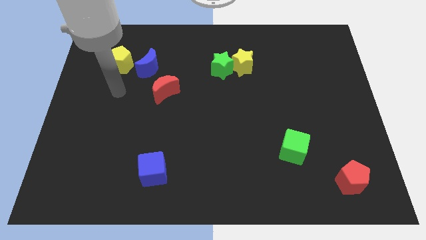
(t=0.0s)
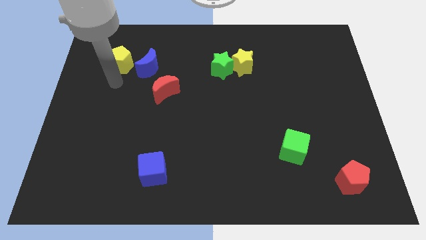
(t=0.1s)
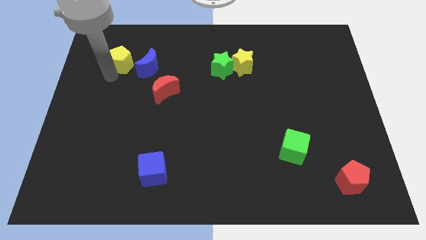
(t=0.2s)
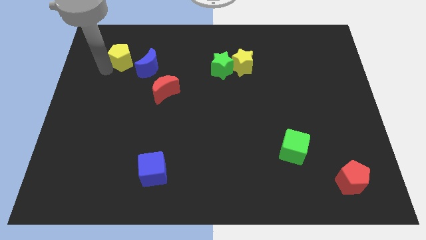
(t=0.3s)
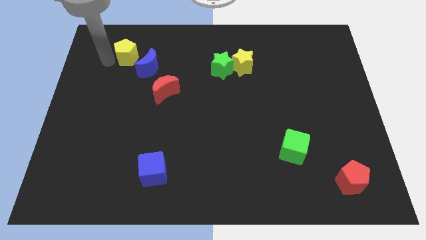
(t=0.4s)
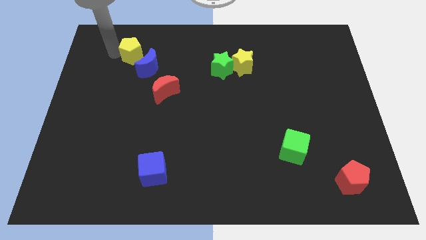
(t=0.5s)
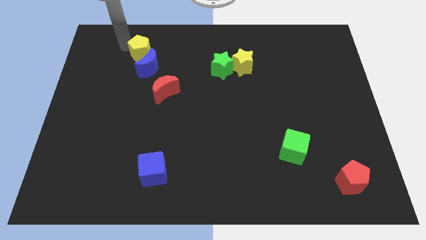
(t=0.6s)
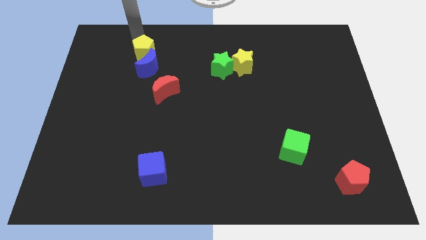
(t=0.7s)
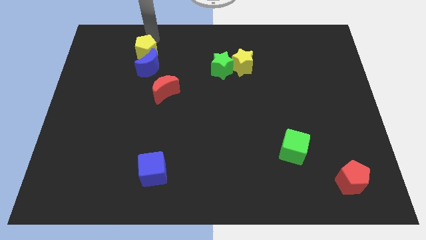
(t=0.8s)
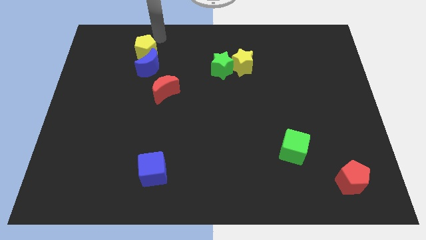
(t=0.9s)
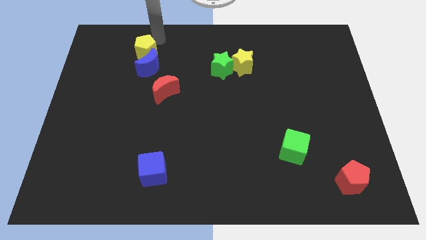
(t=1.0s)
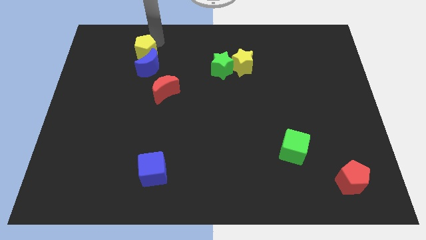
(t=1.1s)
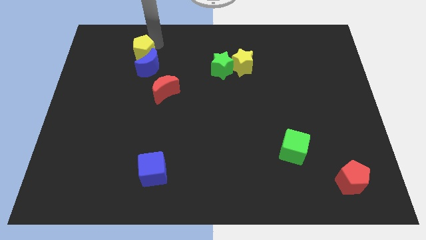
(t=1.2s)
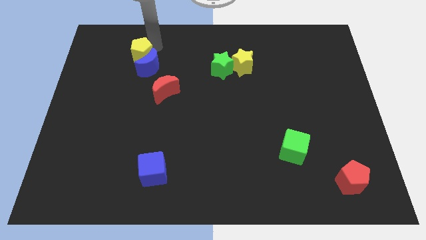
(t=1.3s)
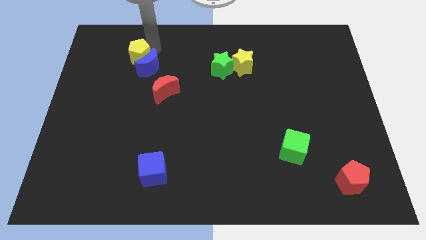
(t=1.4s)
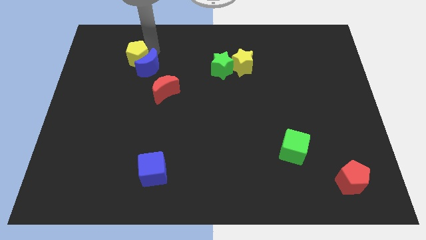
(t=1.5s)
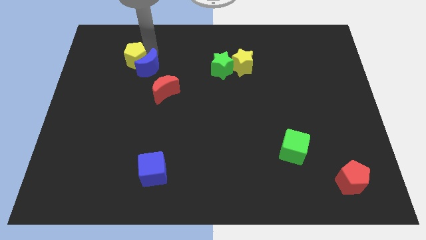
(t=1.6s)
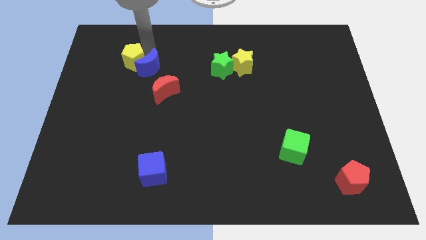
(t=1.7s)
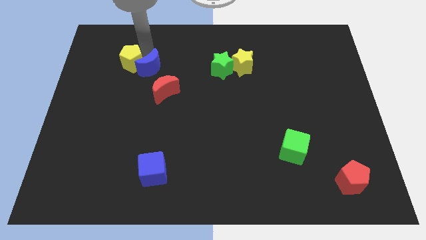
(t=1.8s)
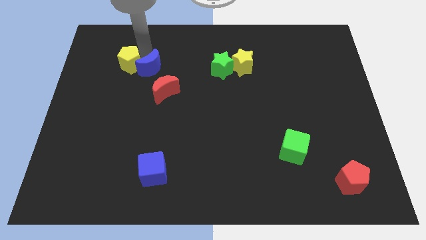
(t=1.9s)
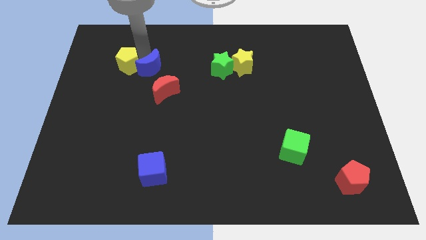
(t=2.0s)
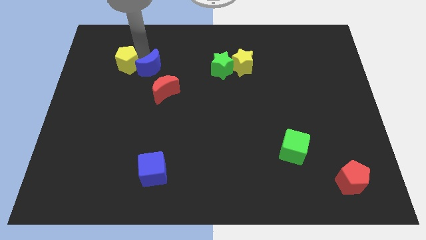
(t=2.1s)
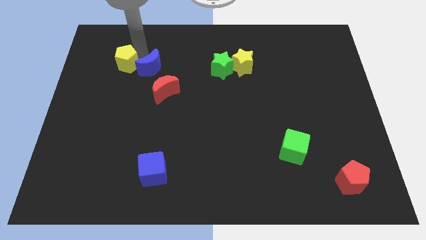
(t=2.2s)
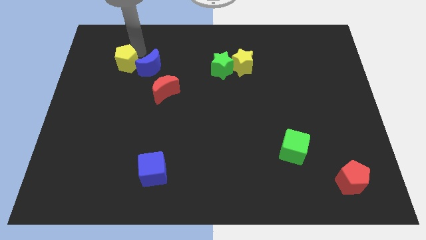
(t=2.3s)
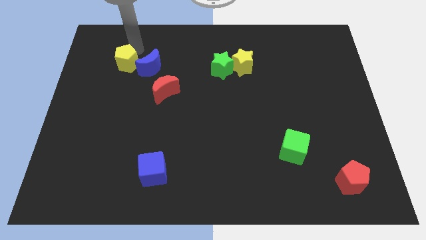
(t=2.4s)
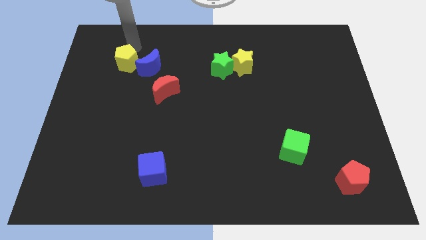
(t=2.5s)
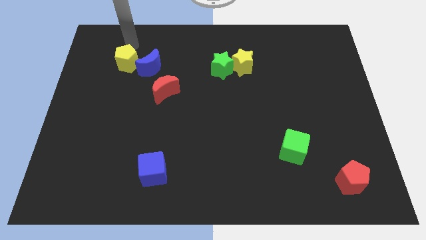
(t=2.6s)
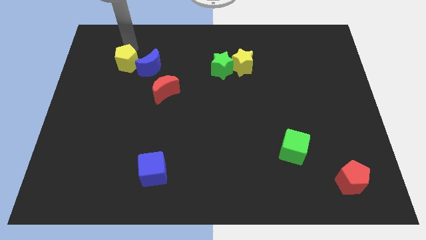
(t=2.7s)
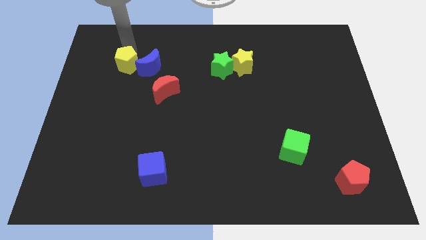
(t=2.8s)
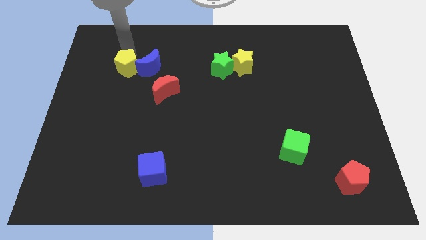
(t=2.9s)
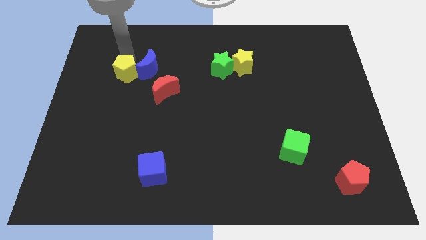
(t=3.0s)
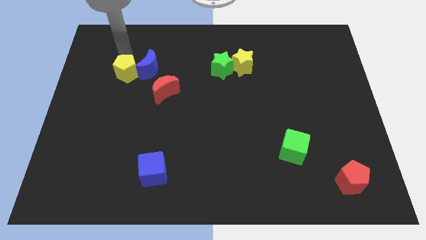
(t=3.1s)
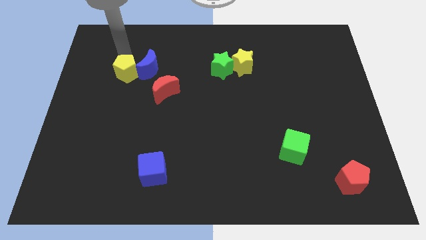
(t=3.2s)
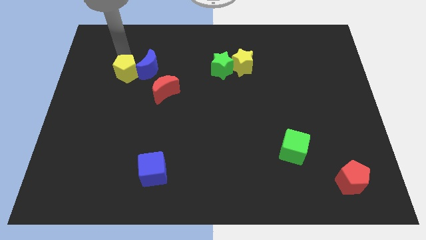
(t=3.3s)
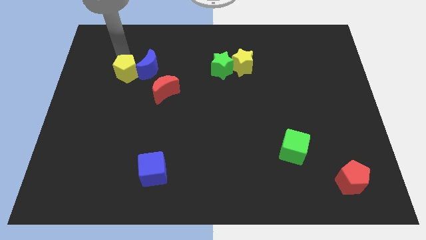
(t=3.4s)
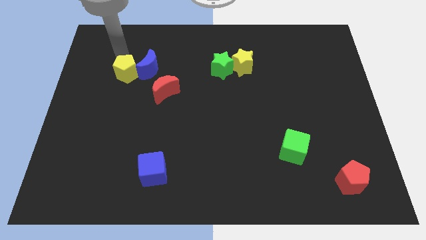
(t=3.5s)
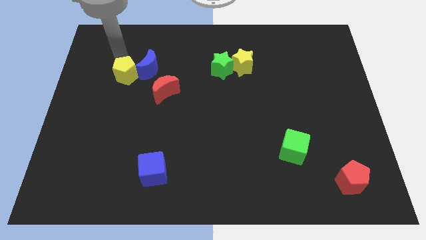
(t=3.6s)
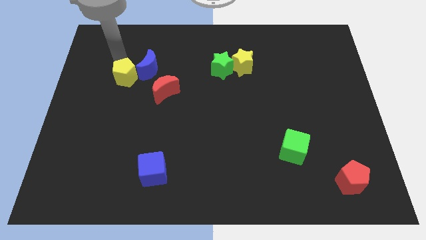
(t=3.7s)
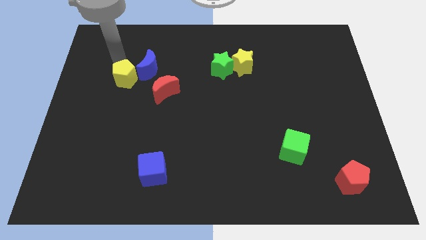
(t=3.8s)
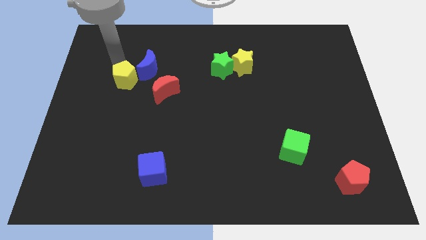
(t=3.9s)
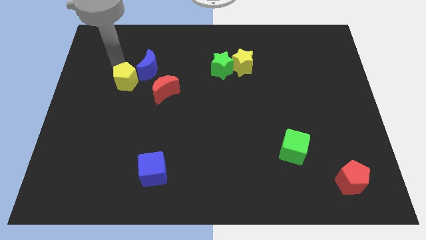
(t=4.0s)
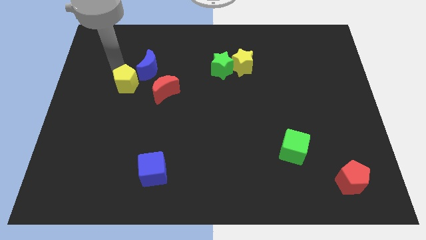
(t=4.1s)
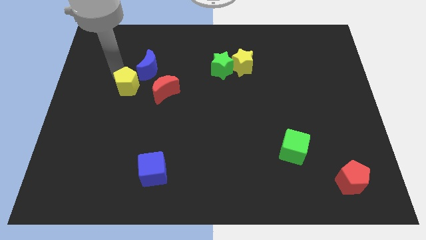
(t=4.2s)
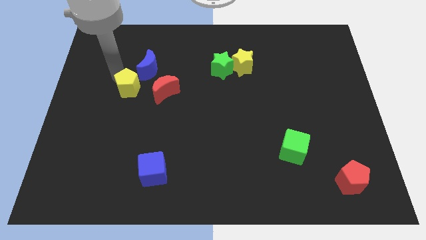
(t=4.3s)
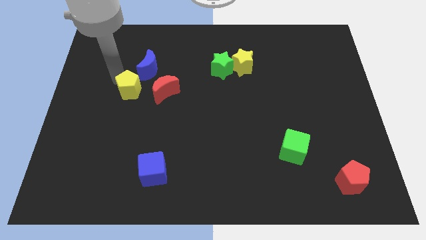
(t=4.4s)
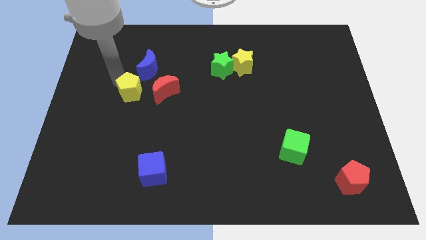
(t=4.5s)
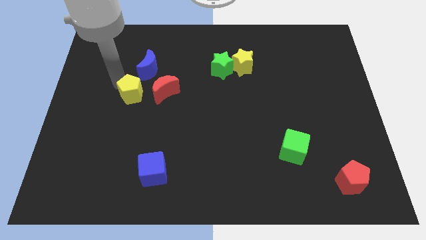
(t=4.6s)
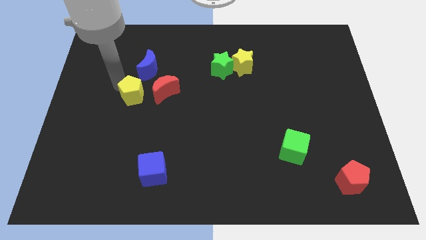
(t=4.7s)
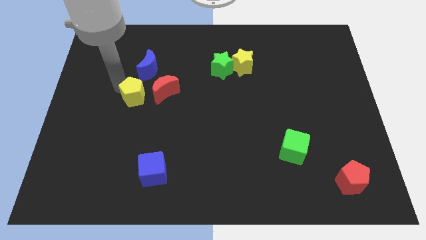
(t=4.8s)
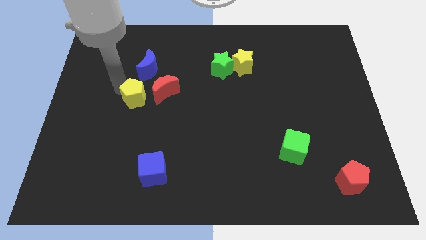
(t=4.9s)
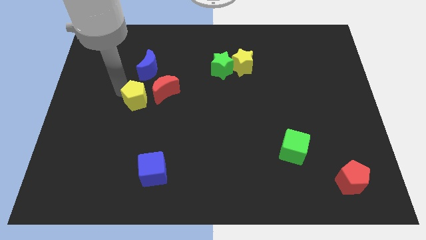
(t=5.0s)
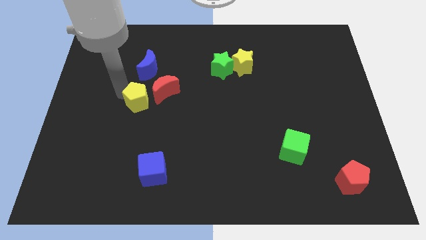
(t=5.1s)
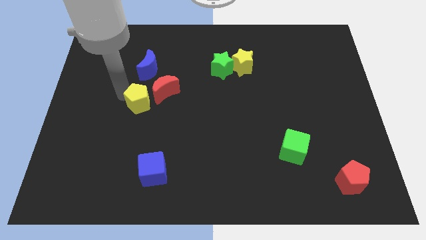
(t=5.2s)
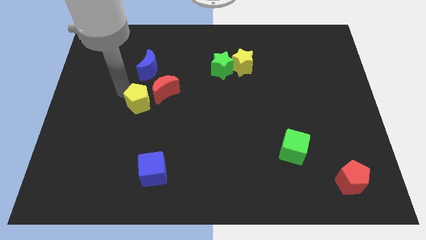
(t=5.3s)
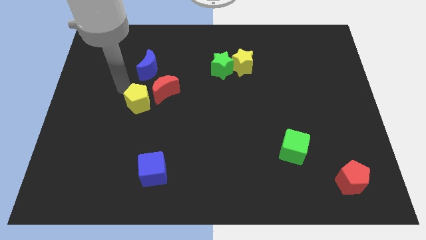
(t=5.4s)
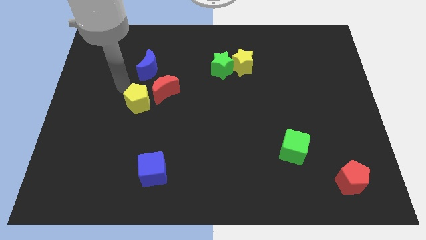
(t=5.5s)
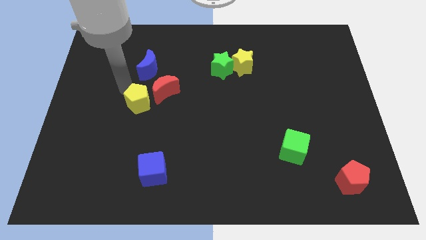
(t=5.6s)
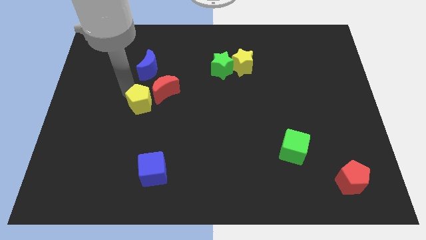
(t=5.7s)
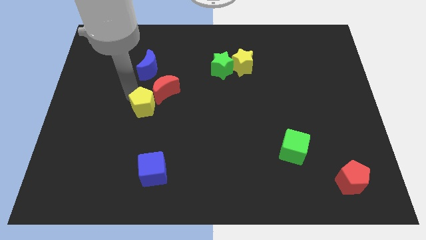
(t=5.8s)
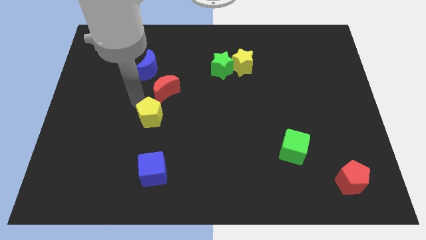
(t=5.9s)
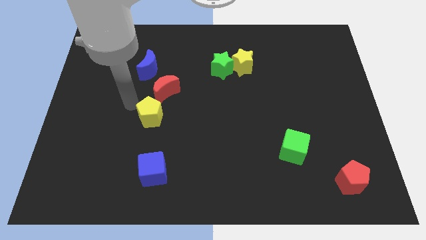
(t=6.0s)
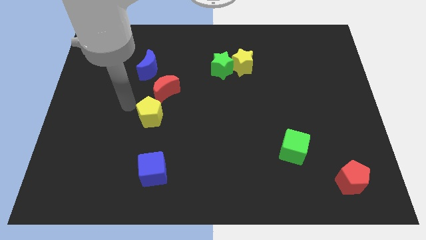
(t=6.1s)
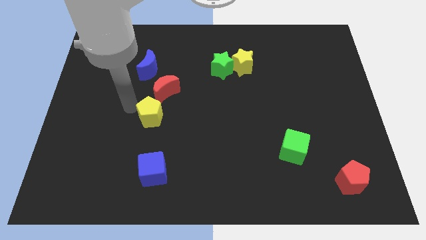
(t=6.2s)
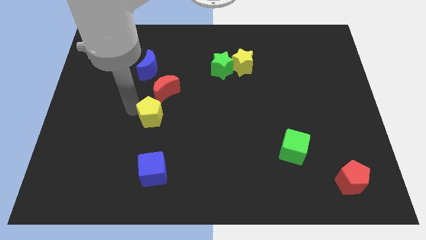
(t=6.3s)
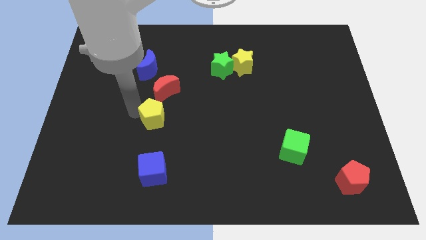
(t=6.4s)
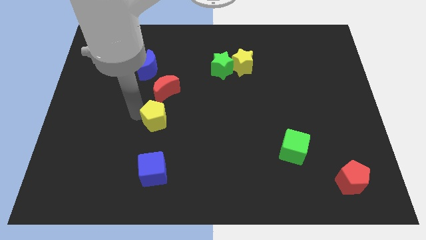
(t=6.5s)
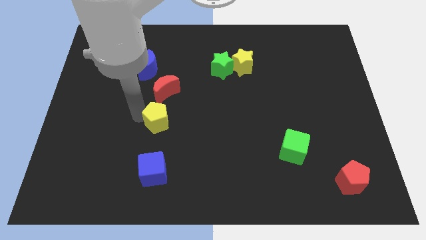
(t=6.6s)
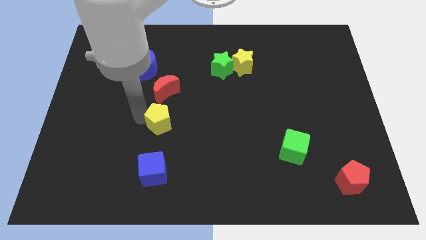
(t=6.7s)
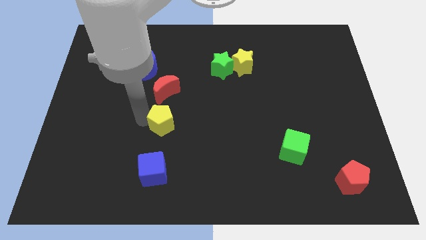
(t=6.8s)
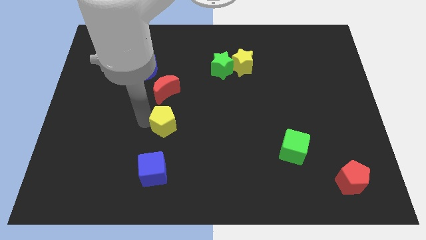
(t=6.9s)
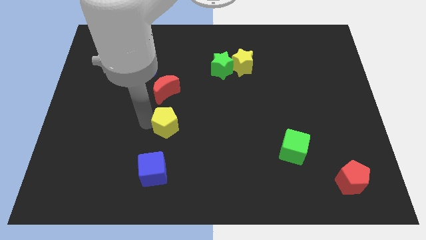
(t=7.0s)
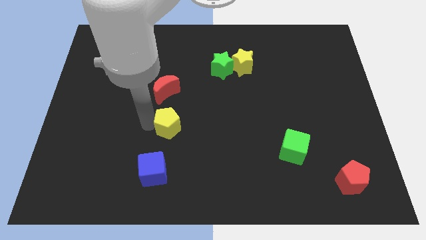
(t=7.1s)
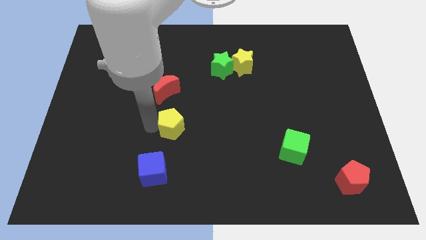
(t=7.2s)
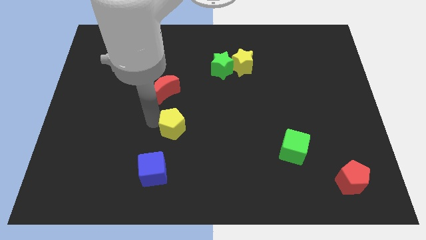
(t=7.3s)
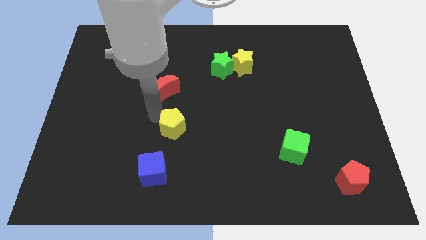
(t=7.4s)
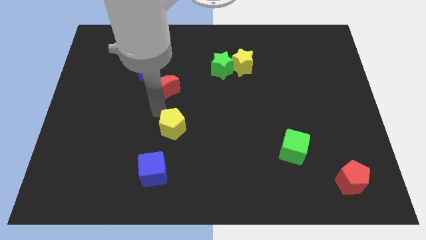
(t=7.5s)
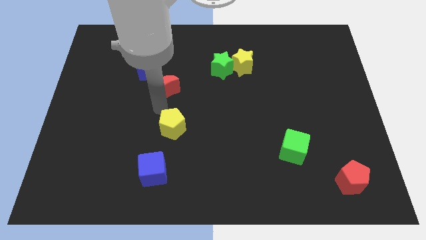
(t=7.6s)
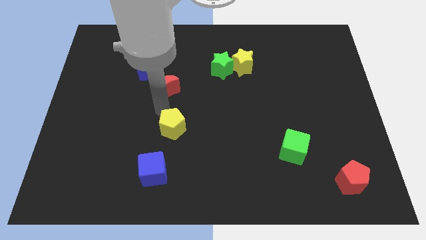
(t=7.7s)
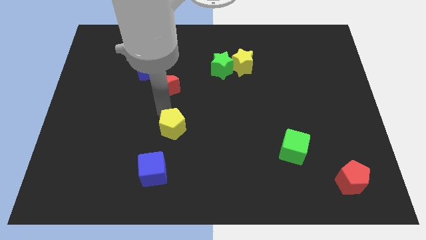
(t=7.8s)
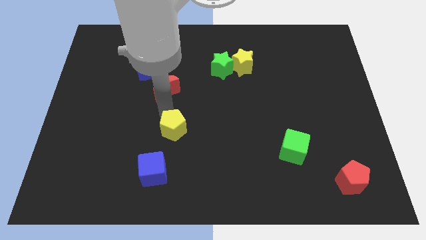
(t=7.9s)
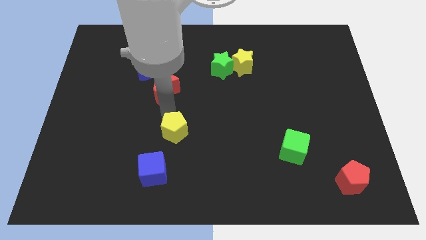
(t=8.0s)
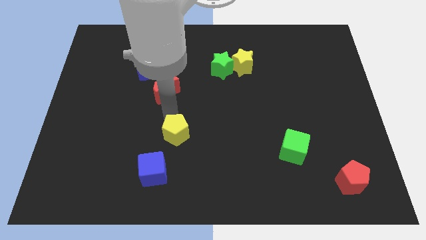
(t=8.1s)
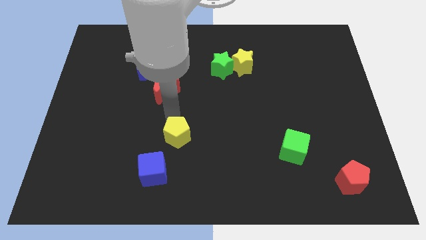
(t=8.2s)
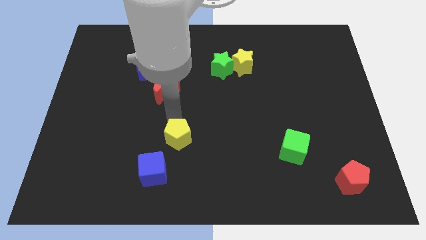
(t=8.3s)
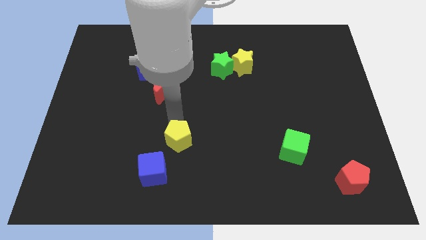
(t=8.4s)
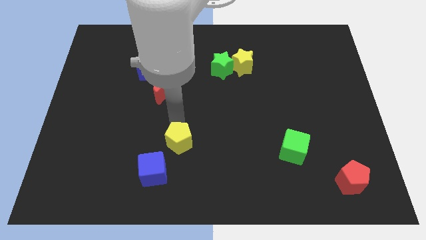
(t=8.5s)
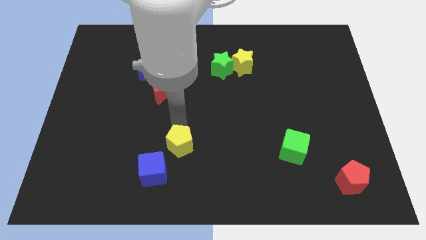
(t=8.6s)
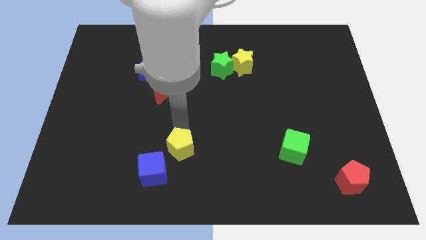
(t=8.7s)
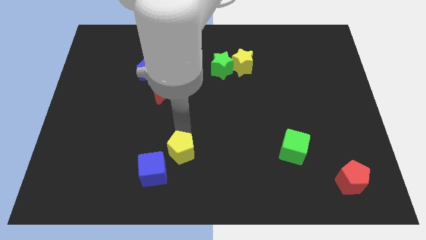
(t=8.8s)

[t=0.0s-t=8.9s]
slide the yellow pentagon to the right of the blue cube
